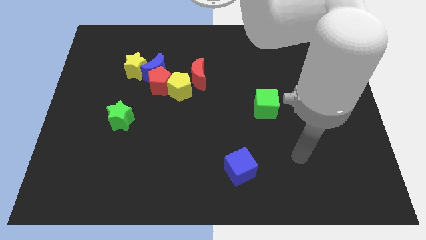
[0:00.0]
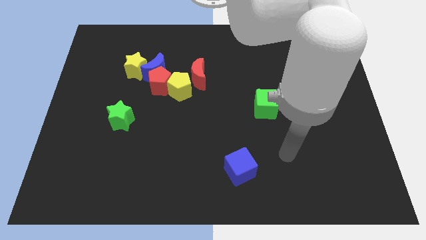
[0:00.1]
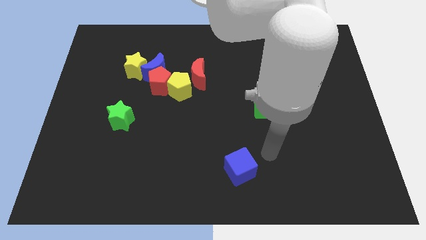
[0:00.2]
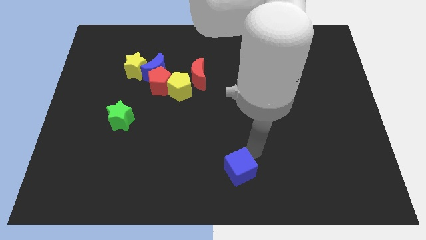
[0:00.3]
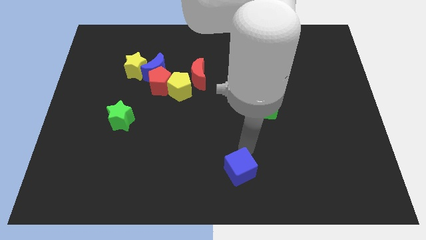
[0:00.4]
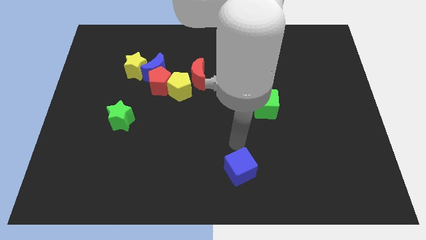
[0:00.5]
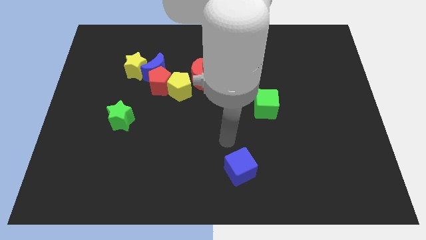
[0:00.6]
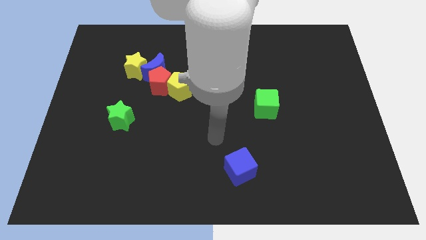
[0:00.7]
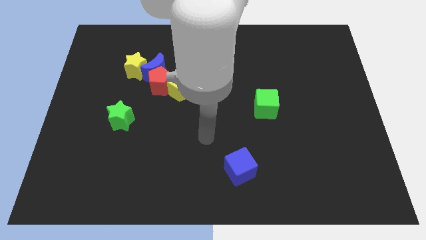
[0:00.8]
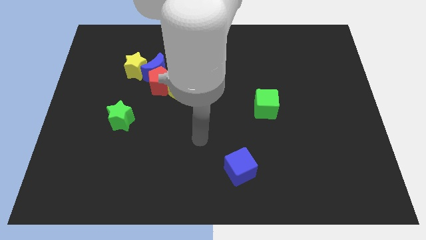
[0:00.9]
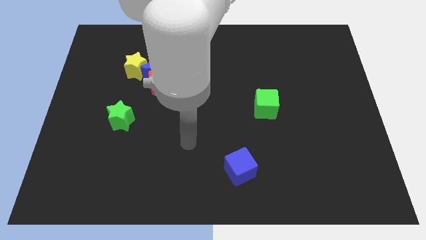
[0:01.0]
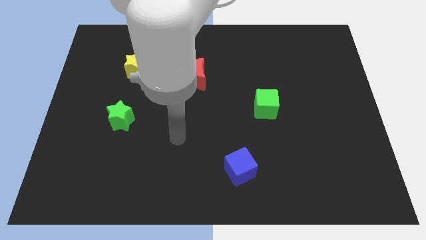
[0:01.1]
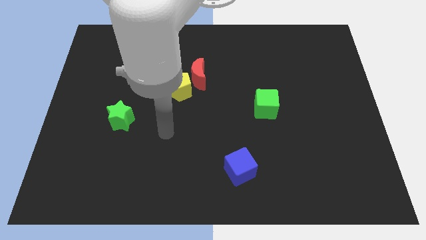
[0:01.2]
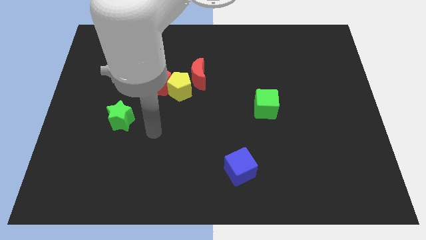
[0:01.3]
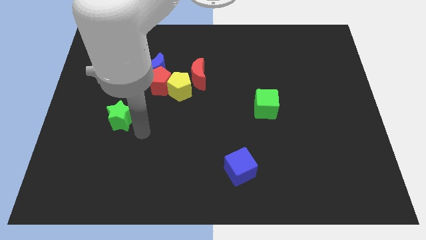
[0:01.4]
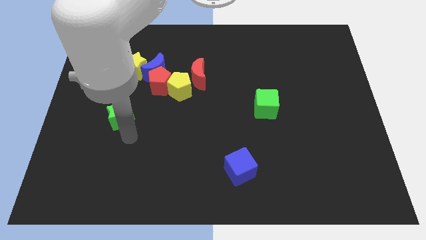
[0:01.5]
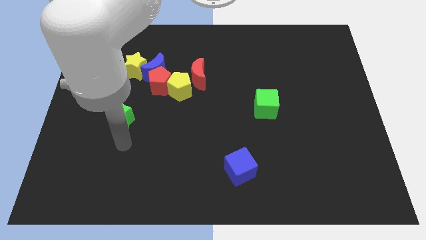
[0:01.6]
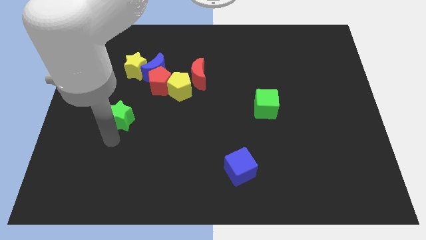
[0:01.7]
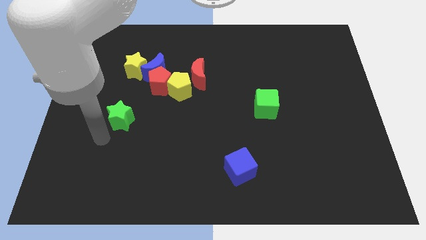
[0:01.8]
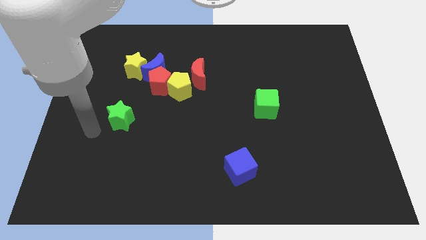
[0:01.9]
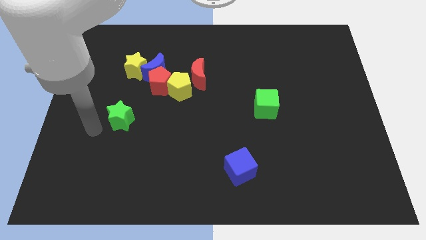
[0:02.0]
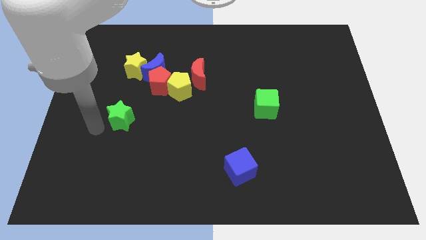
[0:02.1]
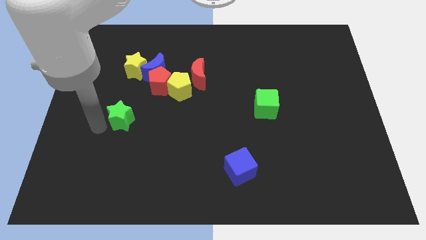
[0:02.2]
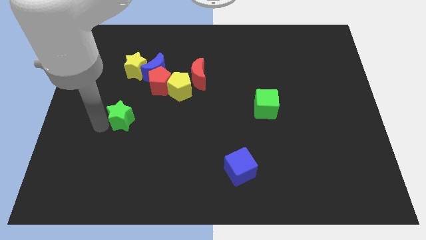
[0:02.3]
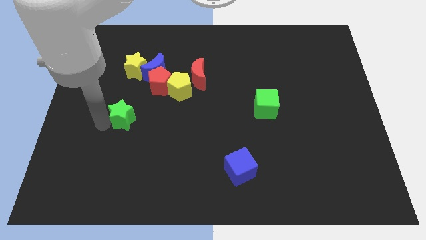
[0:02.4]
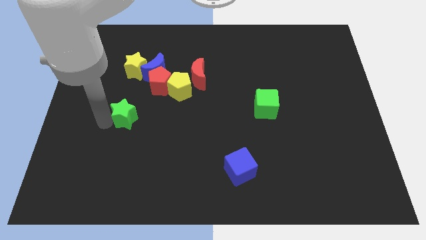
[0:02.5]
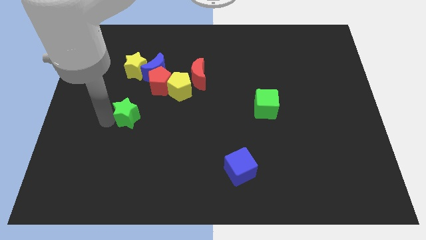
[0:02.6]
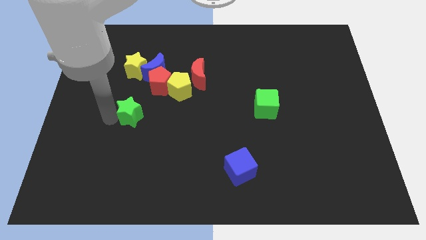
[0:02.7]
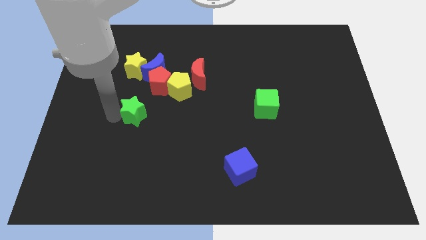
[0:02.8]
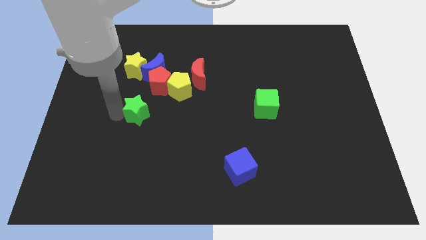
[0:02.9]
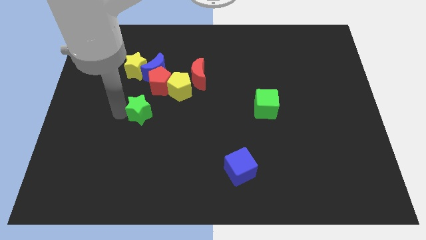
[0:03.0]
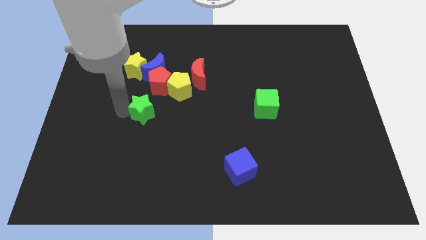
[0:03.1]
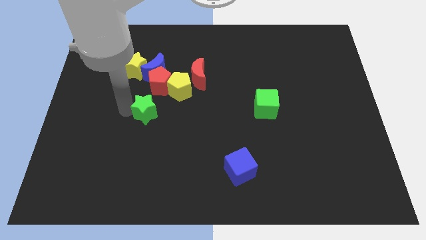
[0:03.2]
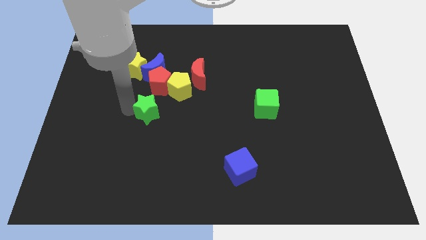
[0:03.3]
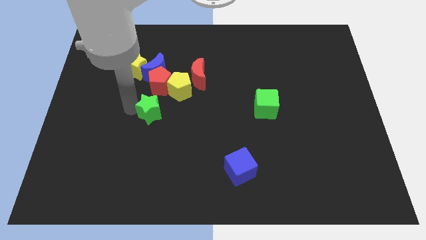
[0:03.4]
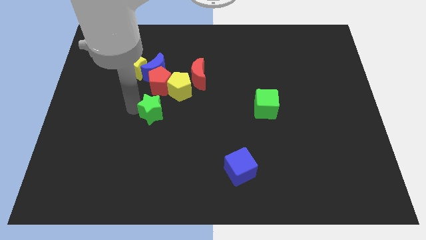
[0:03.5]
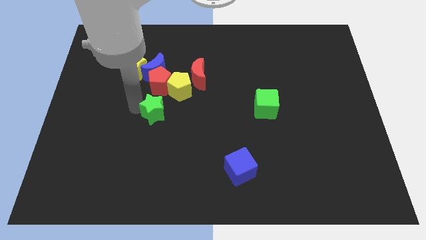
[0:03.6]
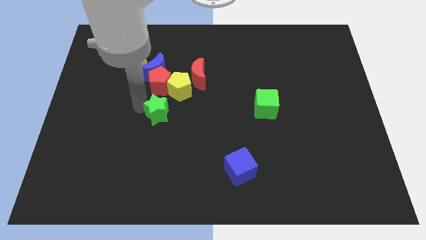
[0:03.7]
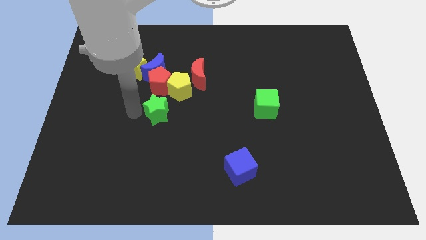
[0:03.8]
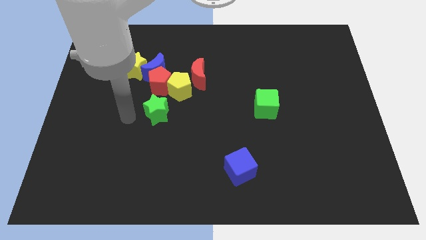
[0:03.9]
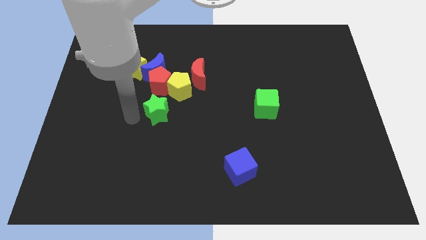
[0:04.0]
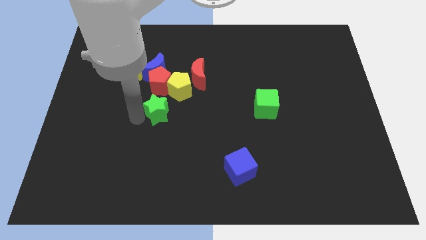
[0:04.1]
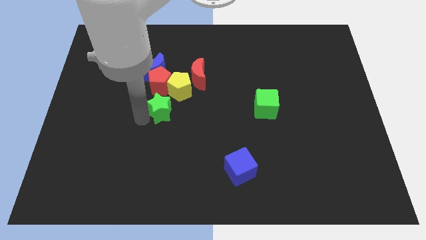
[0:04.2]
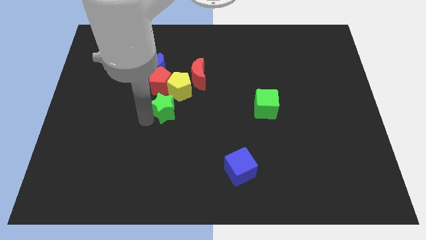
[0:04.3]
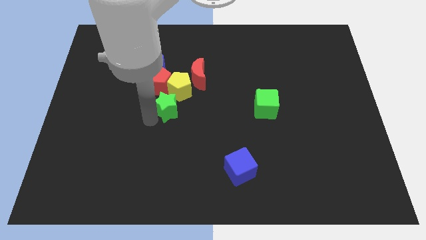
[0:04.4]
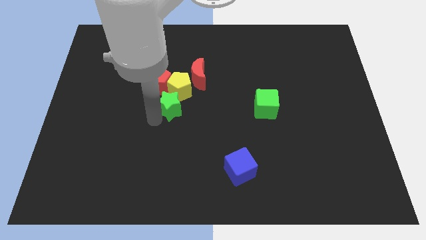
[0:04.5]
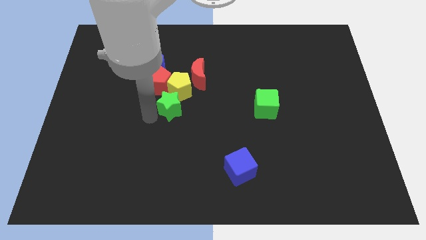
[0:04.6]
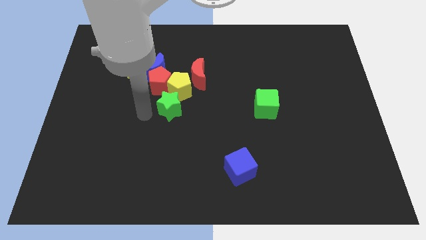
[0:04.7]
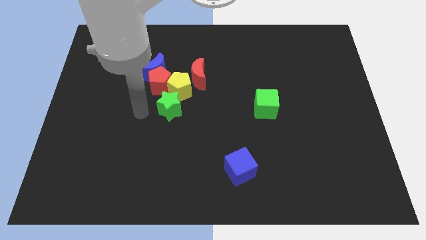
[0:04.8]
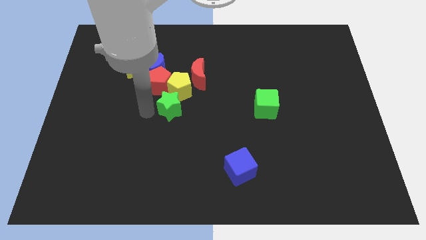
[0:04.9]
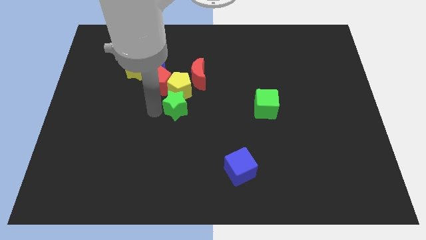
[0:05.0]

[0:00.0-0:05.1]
push the green star to the bottom right of the yellow pentagon

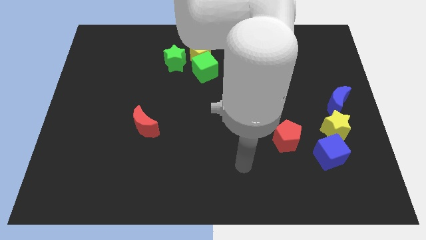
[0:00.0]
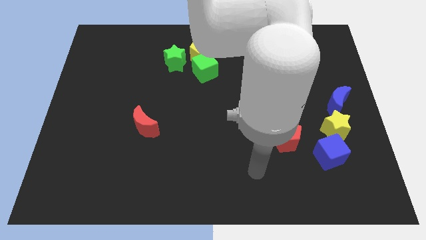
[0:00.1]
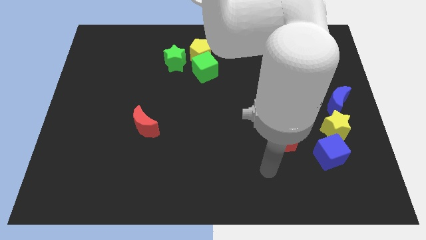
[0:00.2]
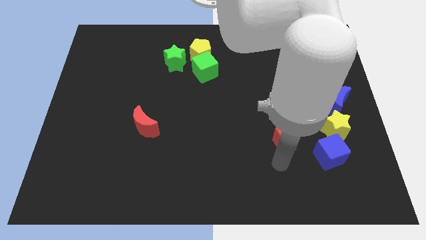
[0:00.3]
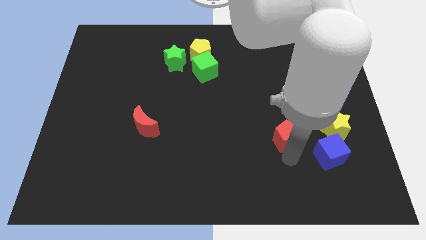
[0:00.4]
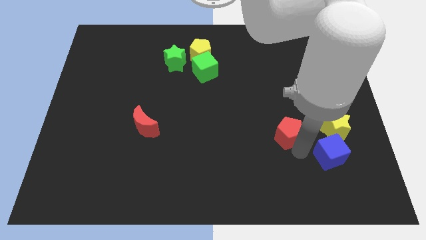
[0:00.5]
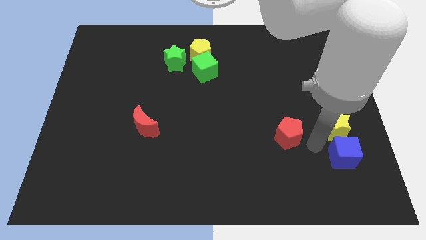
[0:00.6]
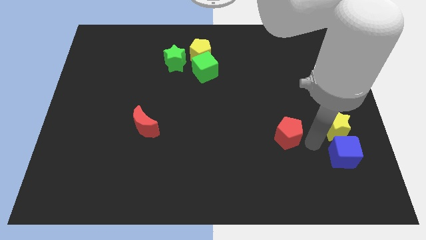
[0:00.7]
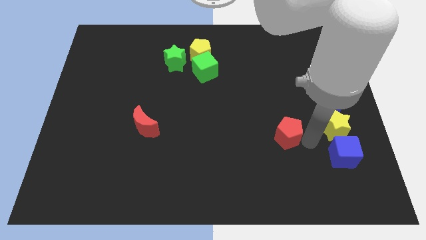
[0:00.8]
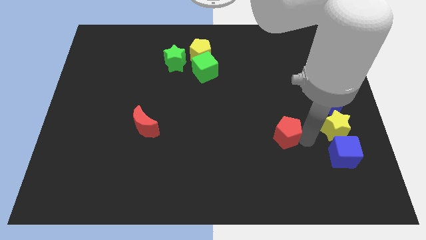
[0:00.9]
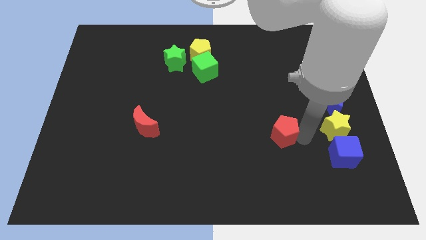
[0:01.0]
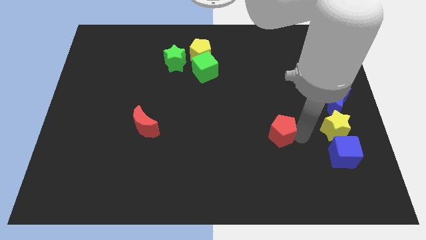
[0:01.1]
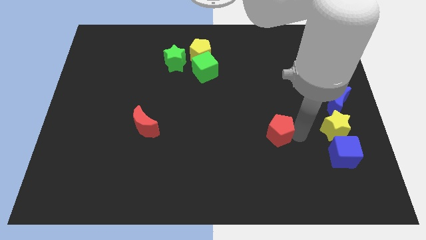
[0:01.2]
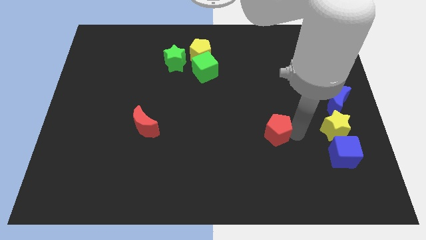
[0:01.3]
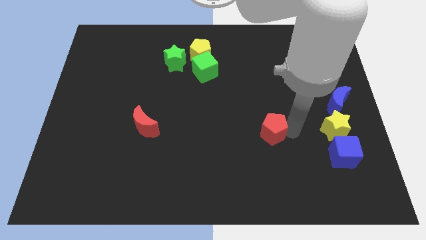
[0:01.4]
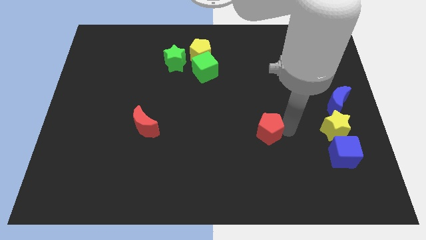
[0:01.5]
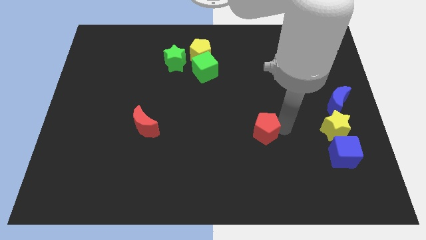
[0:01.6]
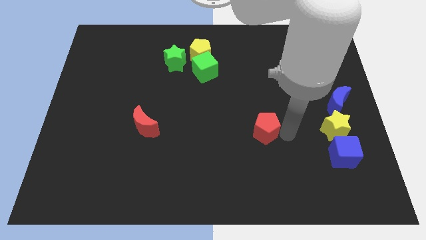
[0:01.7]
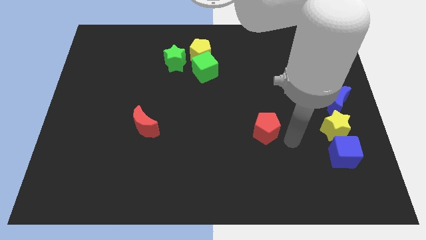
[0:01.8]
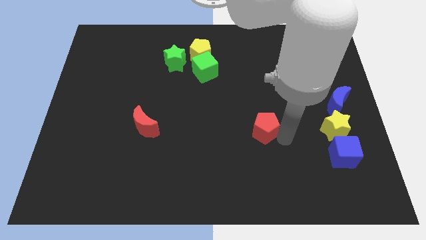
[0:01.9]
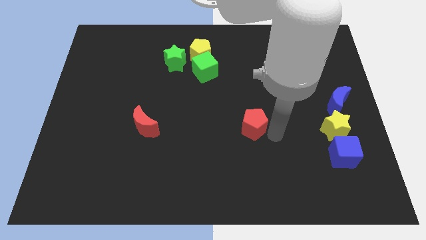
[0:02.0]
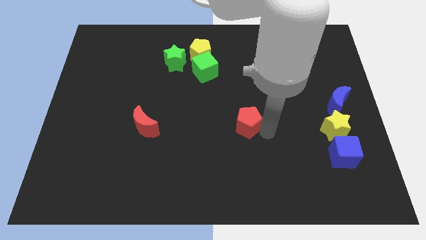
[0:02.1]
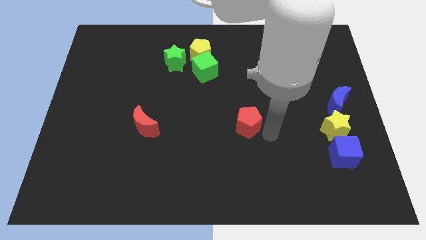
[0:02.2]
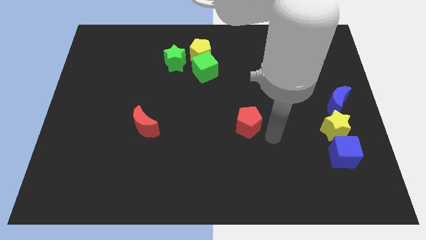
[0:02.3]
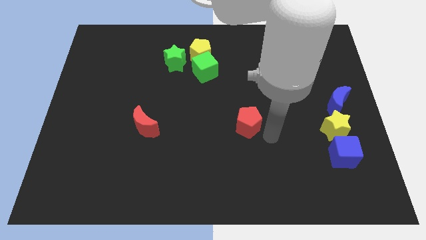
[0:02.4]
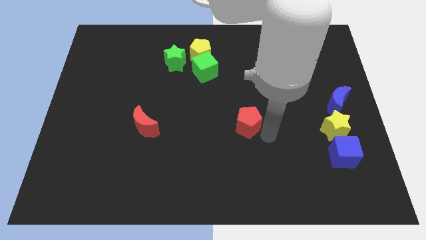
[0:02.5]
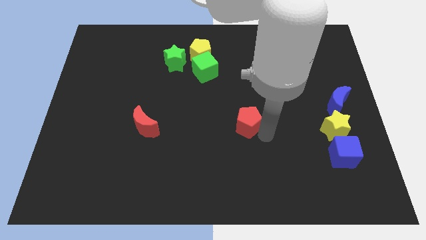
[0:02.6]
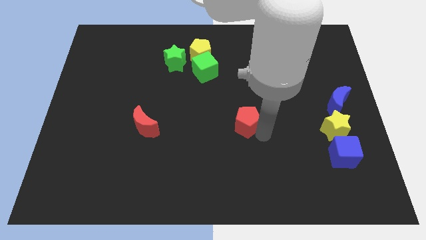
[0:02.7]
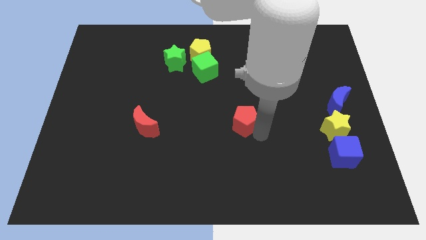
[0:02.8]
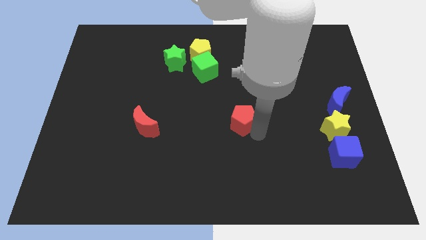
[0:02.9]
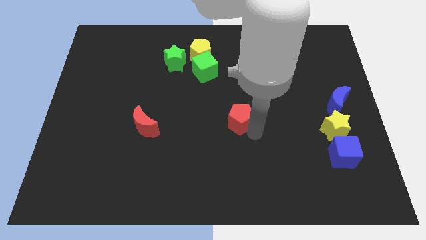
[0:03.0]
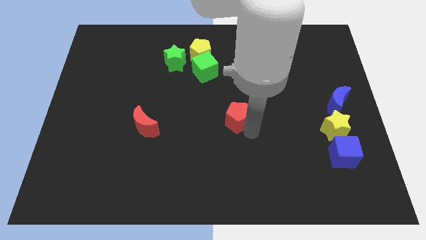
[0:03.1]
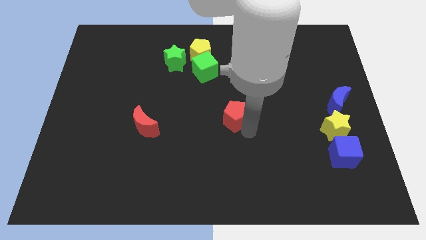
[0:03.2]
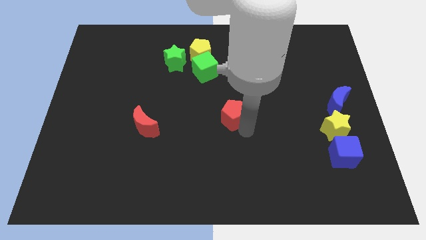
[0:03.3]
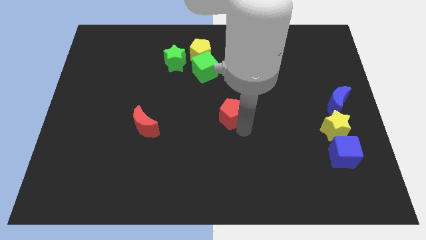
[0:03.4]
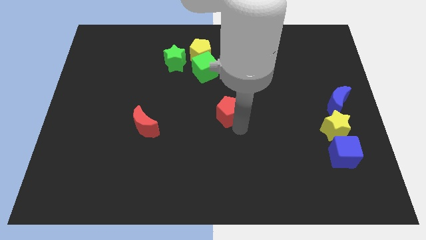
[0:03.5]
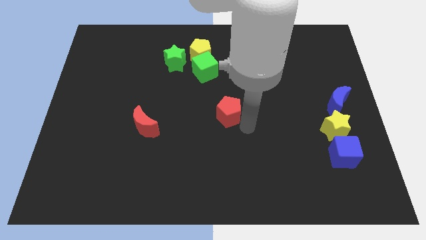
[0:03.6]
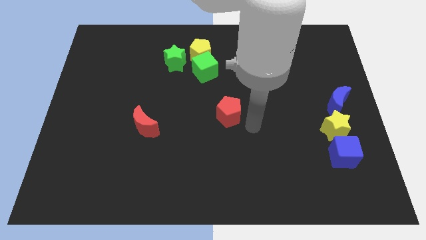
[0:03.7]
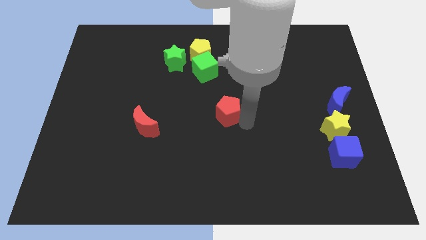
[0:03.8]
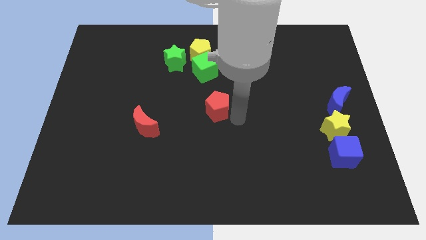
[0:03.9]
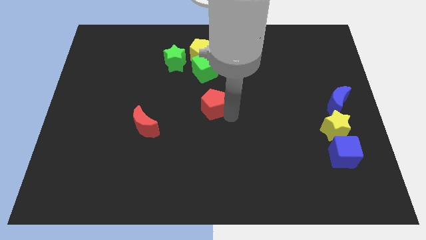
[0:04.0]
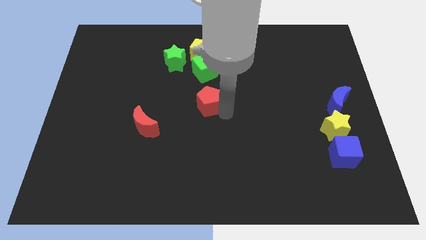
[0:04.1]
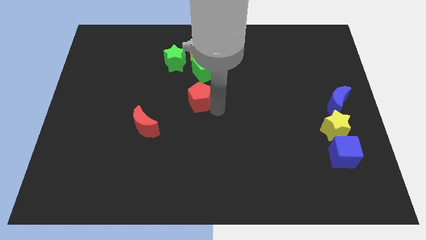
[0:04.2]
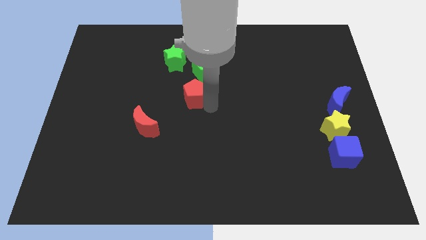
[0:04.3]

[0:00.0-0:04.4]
slide the red pentagon to the bottom left of the green cube
